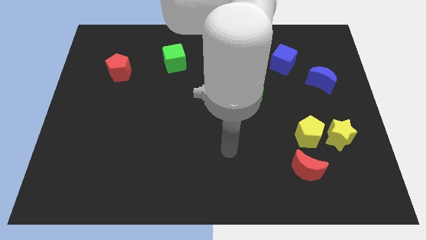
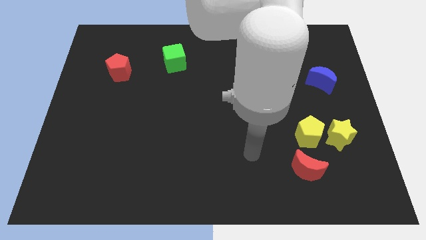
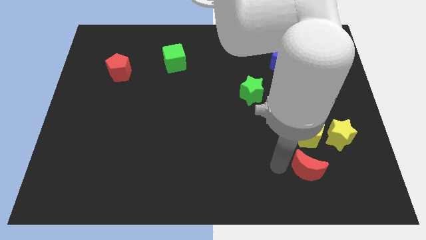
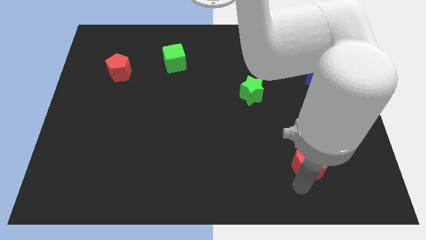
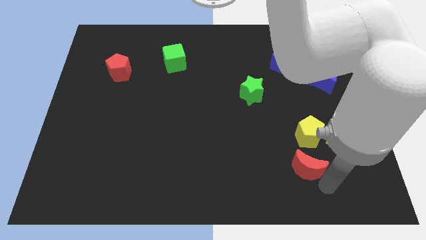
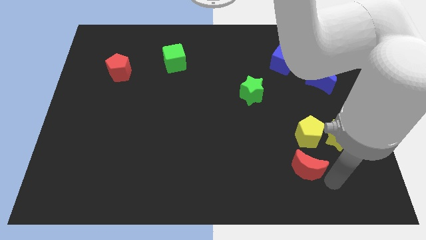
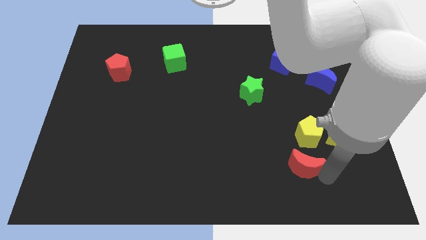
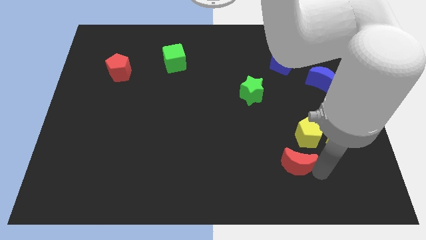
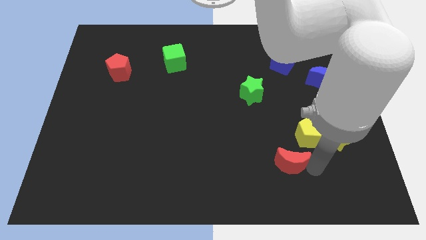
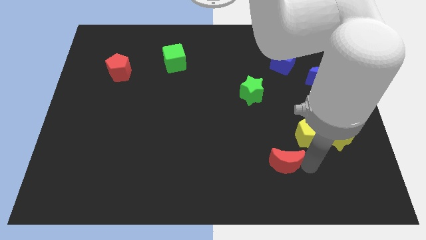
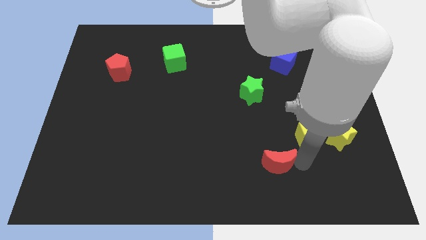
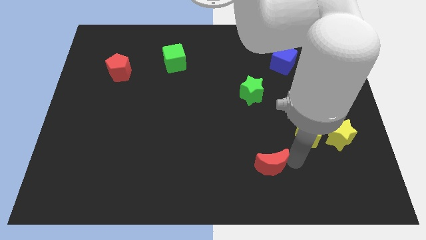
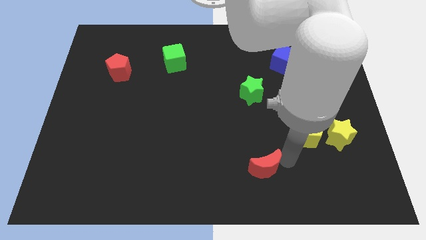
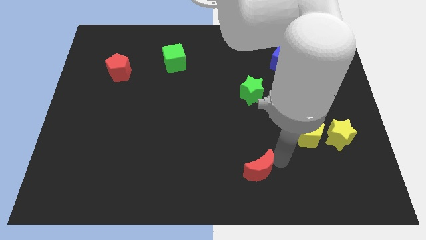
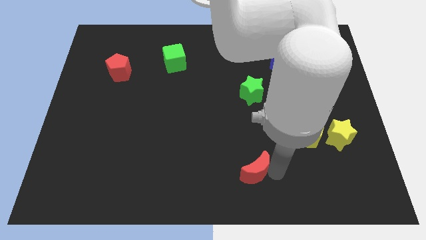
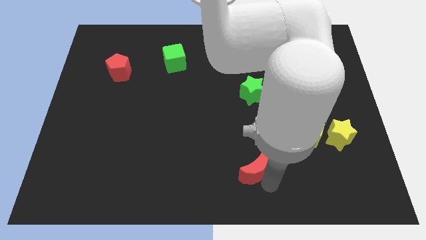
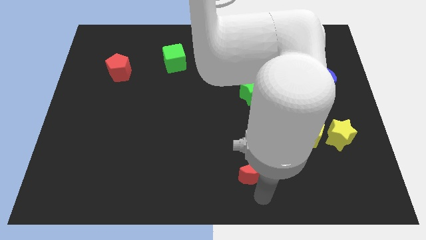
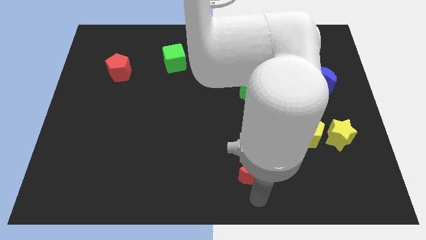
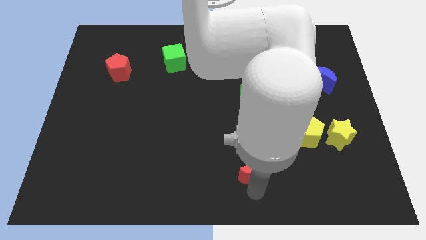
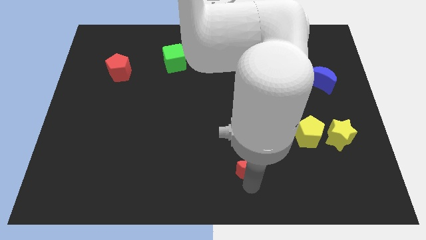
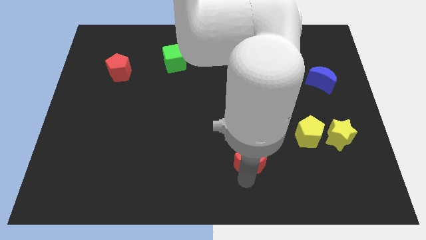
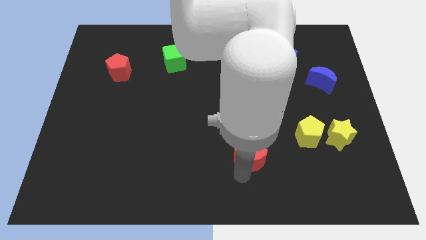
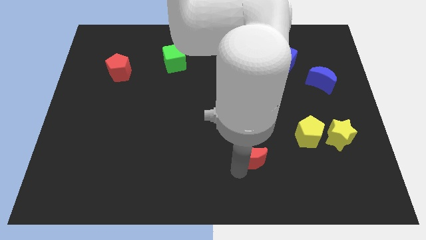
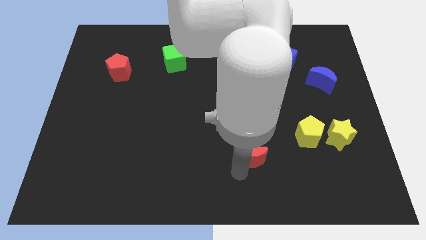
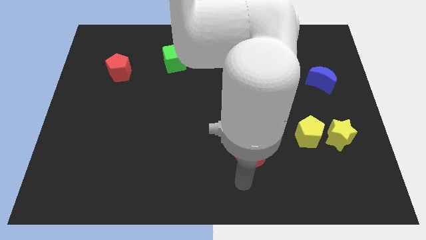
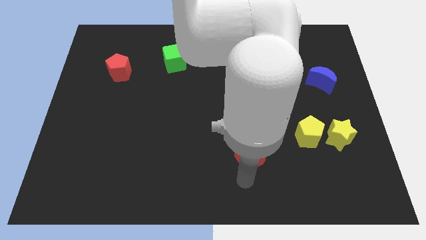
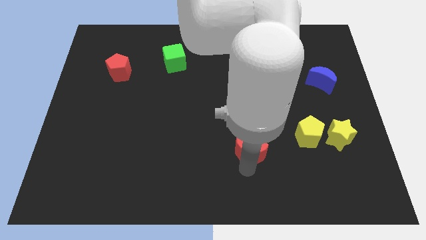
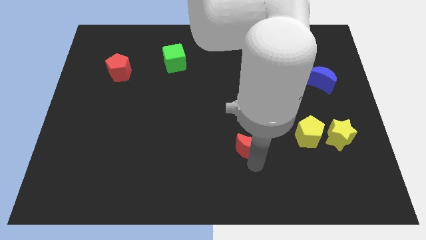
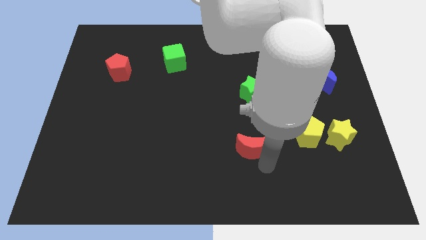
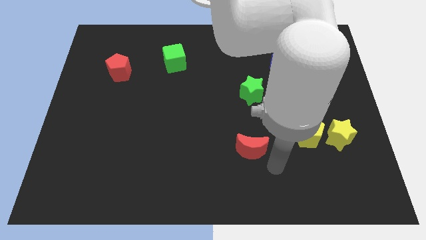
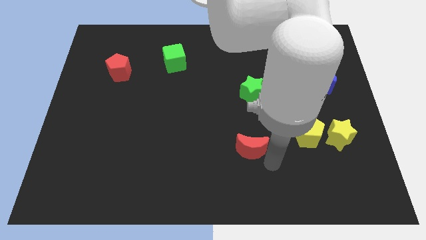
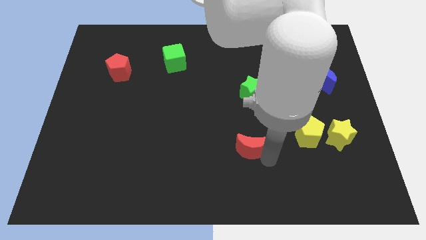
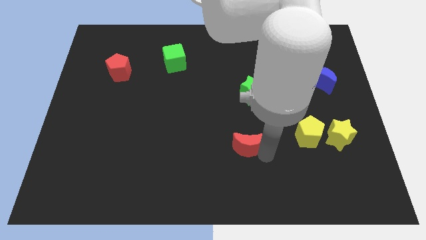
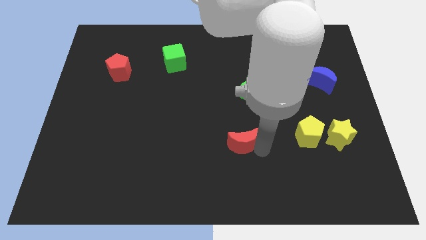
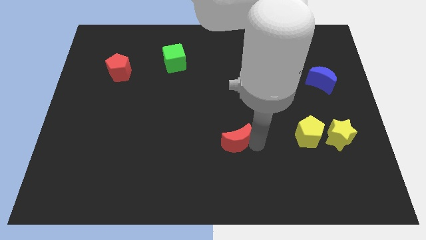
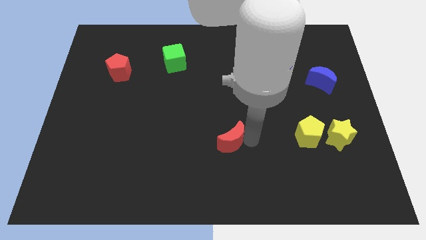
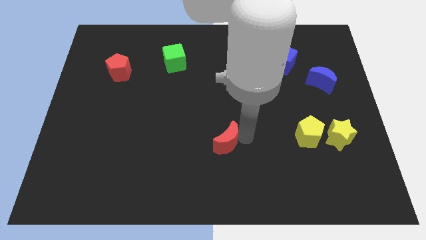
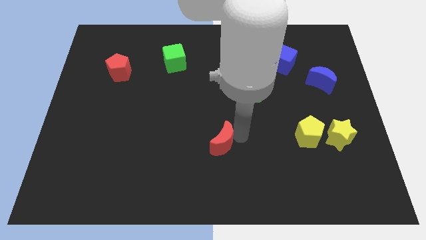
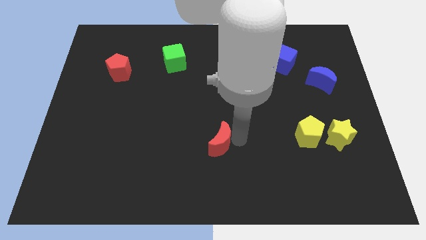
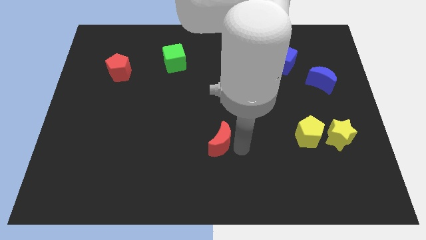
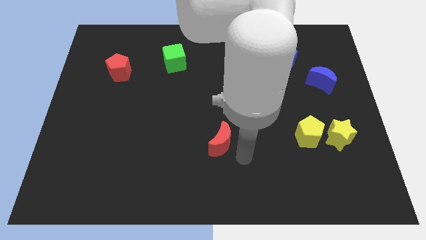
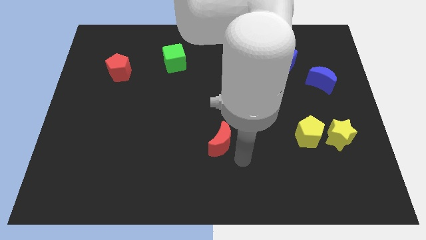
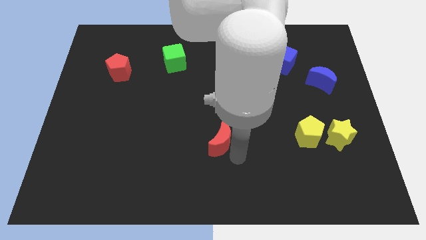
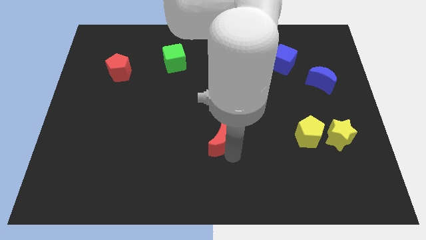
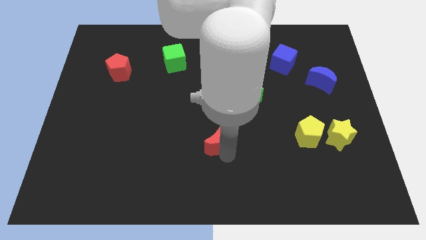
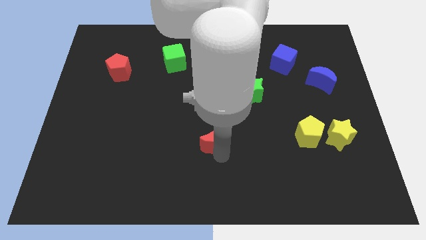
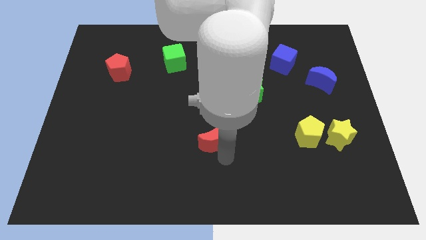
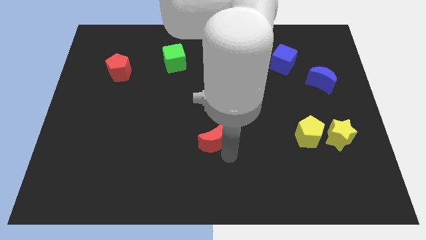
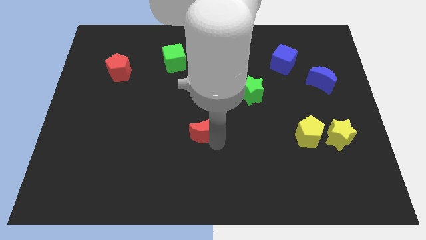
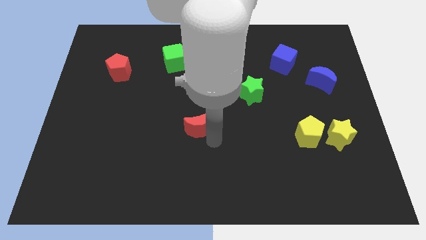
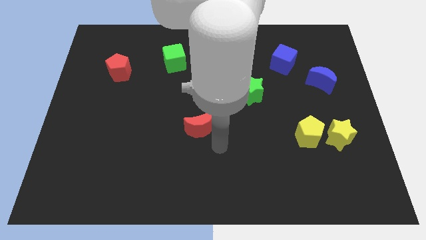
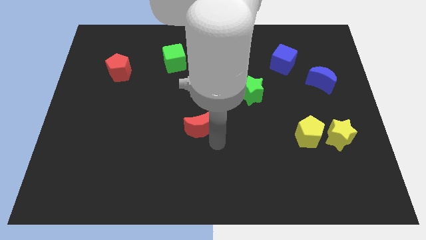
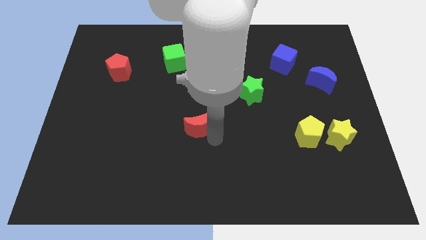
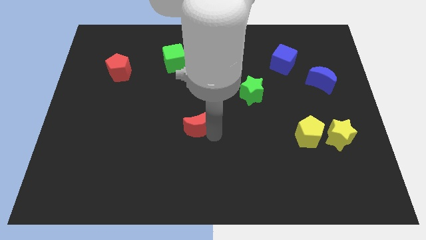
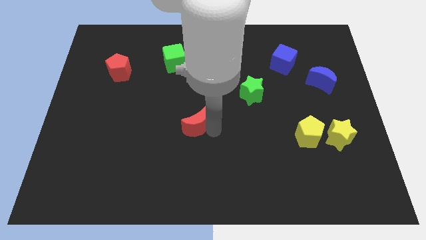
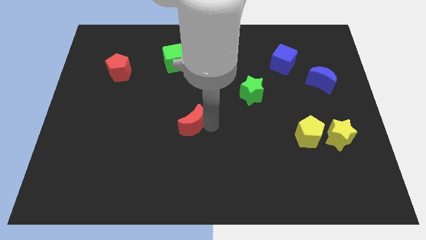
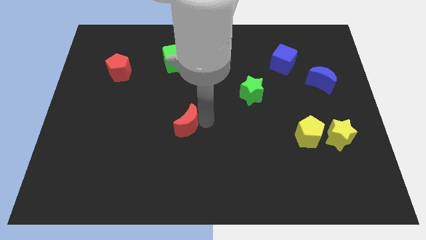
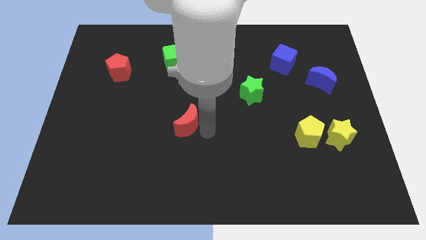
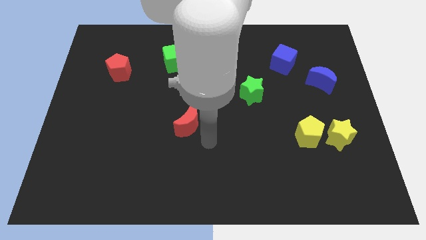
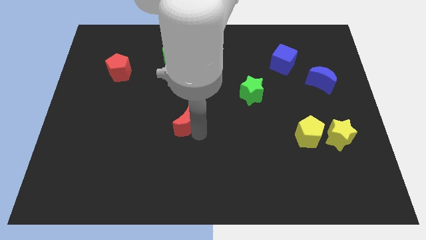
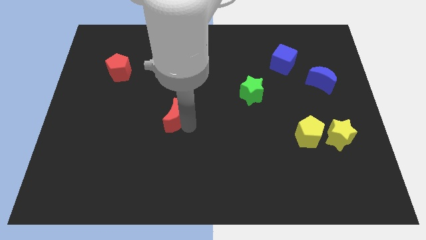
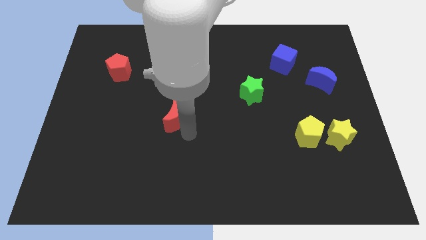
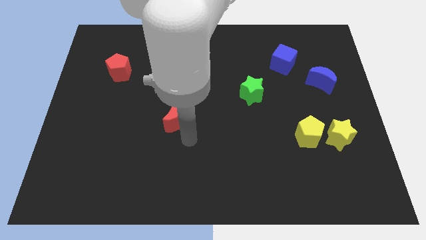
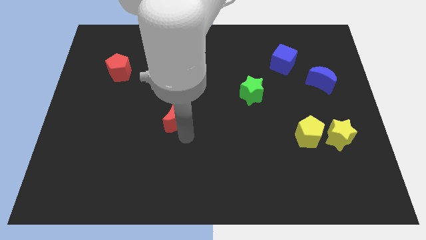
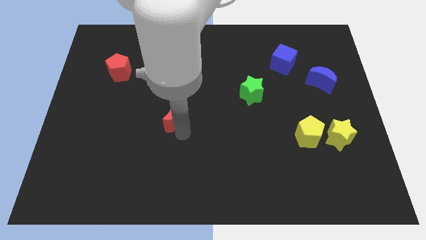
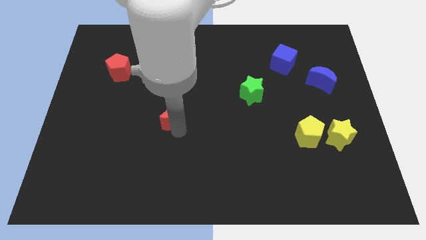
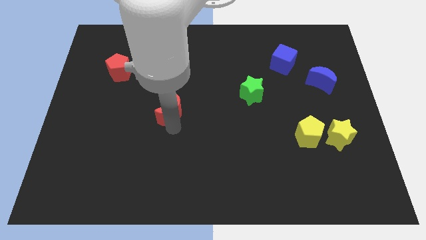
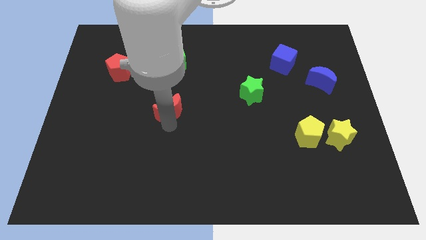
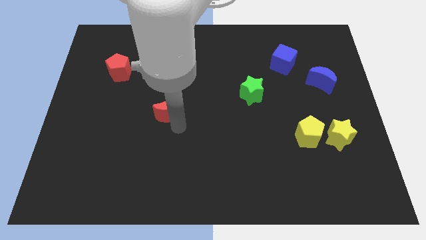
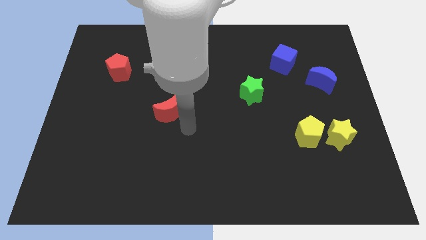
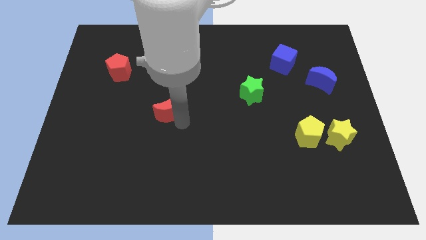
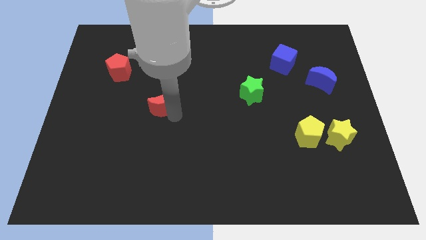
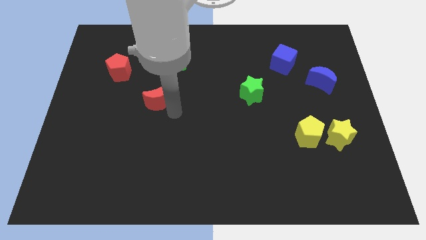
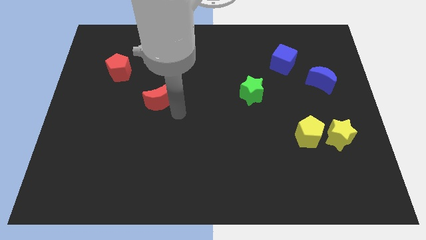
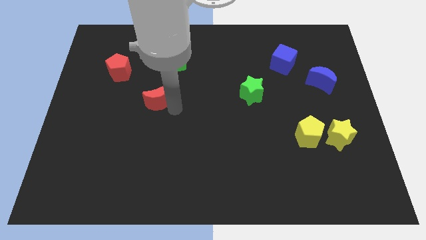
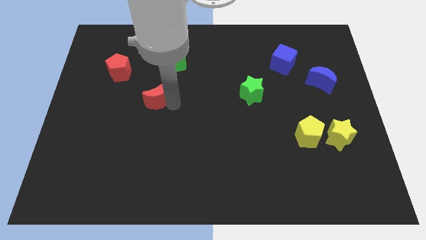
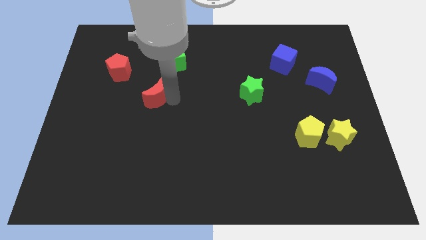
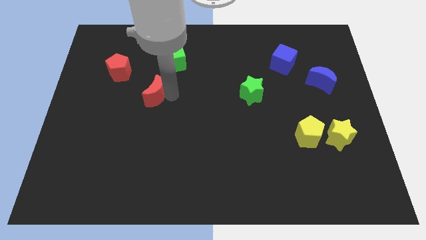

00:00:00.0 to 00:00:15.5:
move the red moon to the bottom right of the red pentagon
